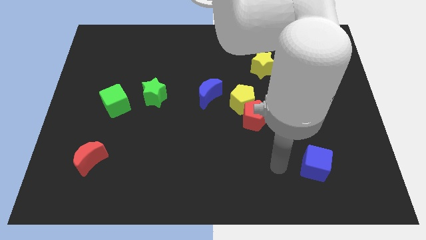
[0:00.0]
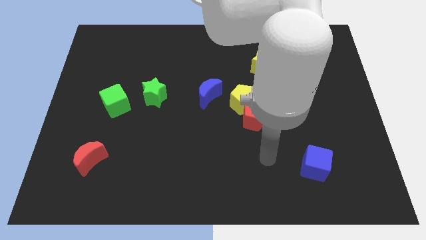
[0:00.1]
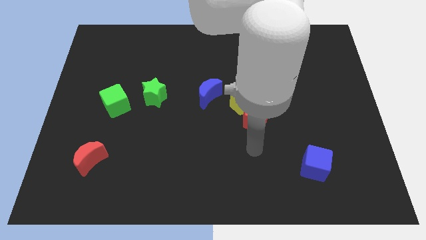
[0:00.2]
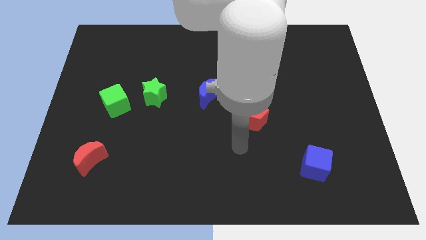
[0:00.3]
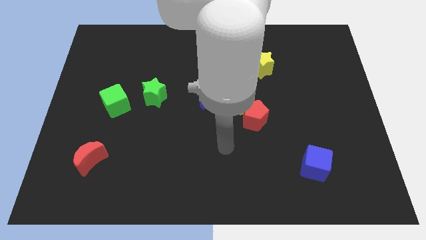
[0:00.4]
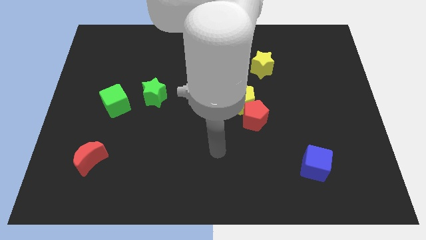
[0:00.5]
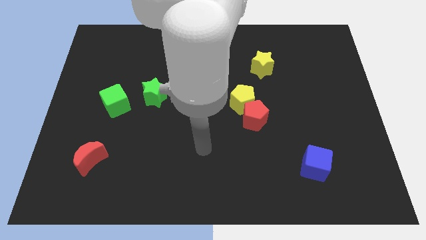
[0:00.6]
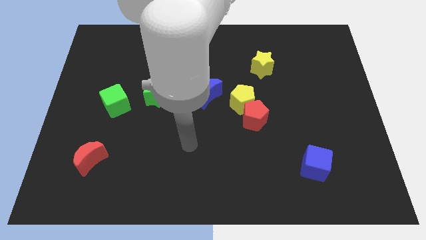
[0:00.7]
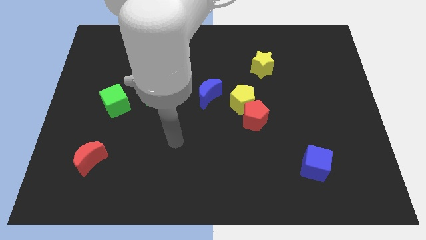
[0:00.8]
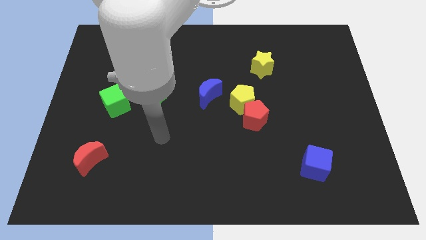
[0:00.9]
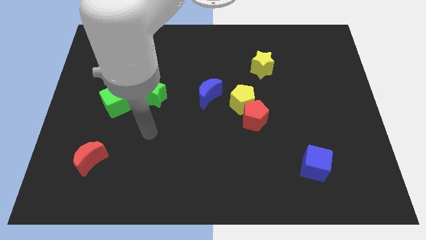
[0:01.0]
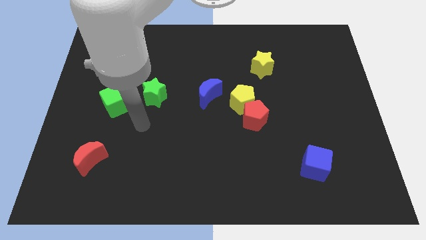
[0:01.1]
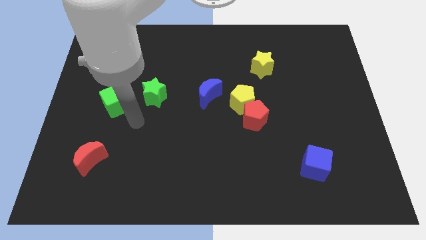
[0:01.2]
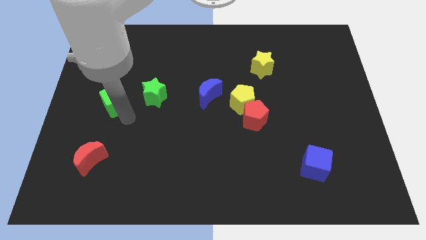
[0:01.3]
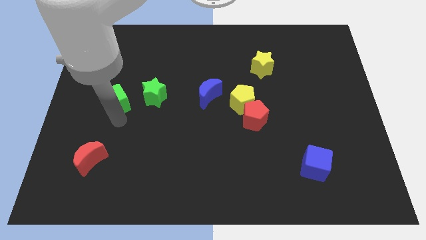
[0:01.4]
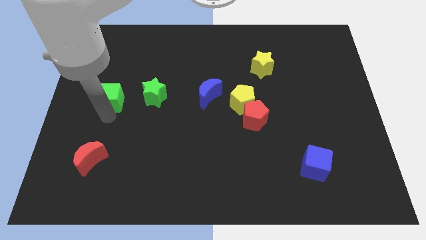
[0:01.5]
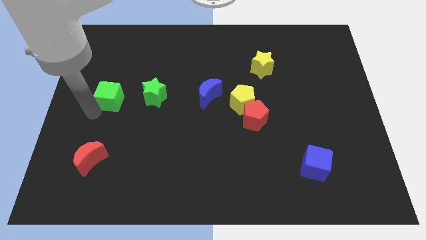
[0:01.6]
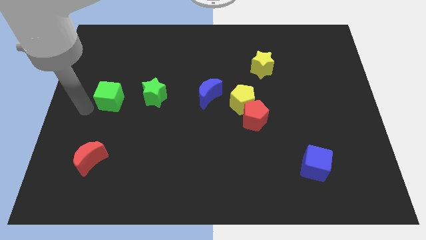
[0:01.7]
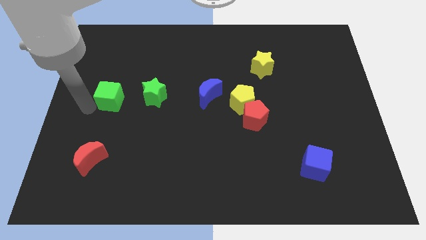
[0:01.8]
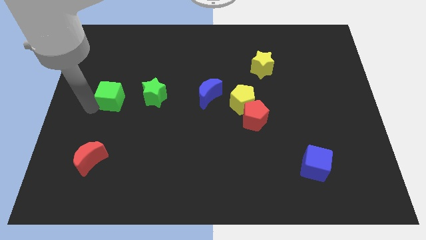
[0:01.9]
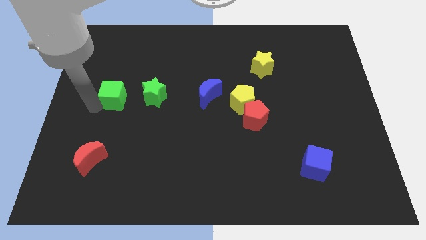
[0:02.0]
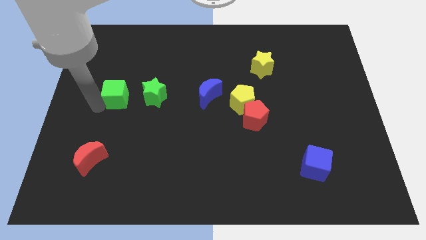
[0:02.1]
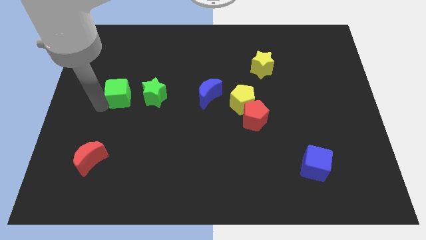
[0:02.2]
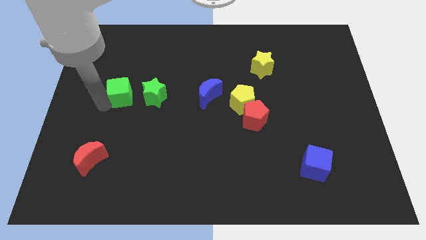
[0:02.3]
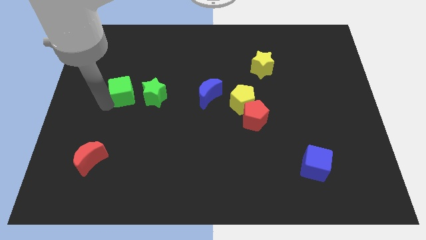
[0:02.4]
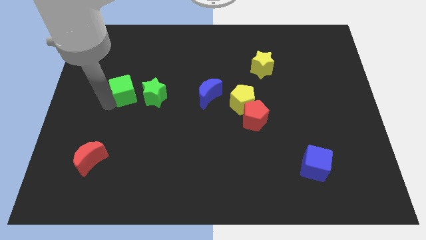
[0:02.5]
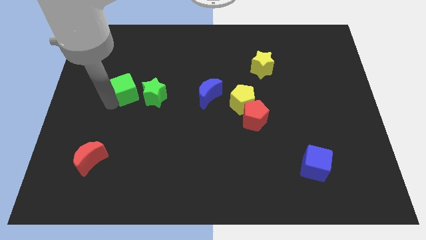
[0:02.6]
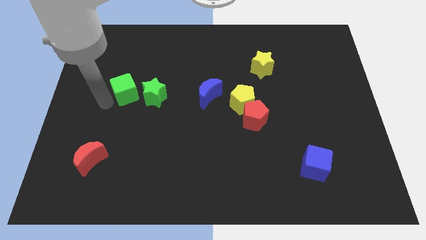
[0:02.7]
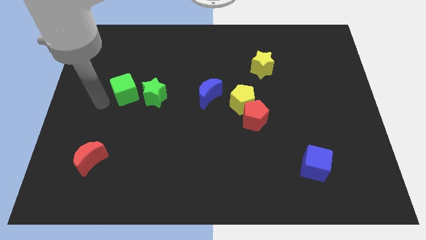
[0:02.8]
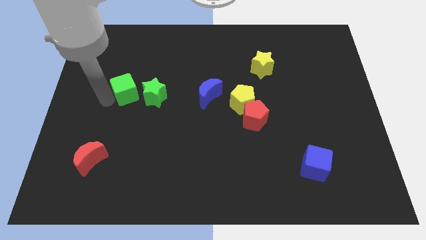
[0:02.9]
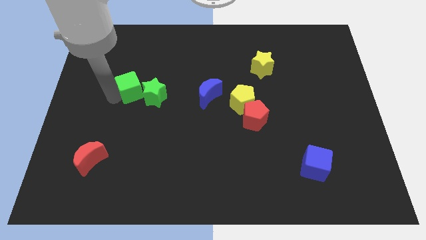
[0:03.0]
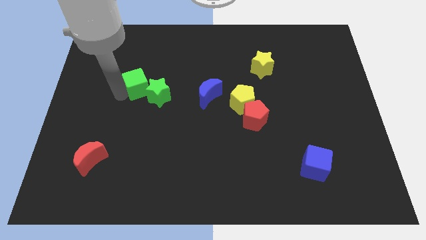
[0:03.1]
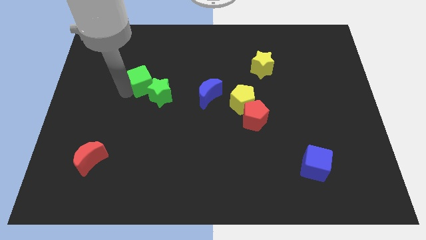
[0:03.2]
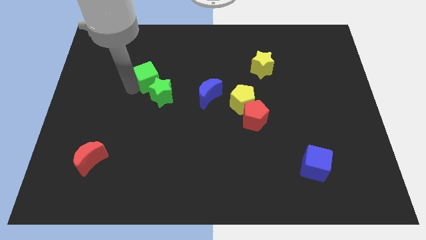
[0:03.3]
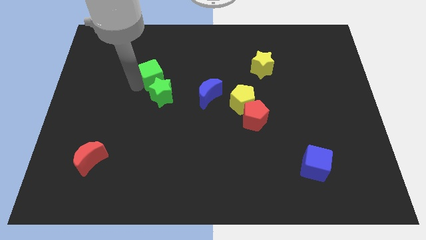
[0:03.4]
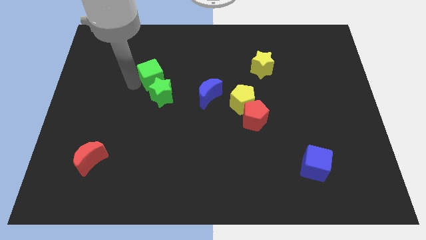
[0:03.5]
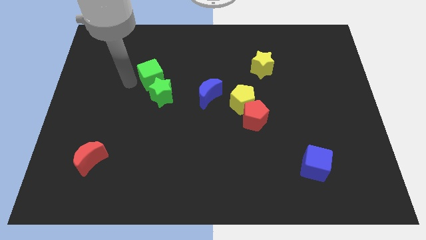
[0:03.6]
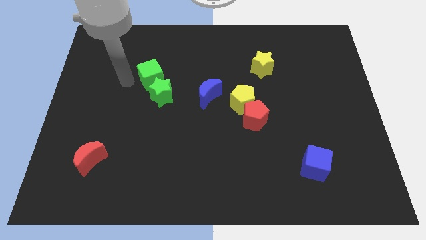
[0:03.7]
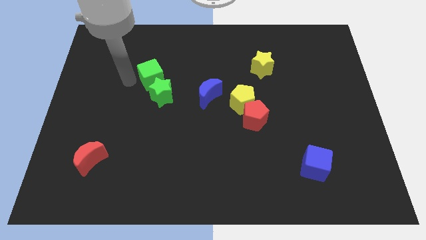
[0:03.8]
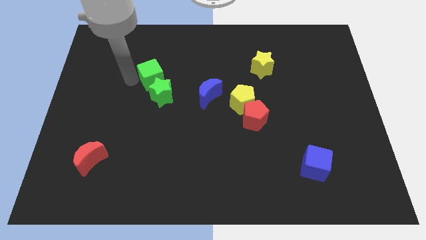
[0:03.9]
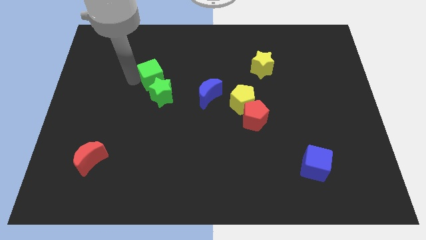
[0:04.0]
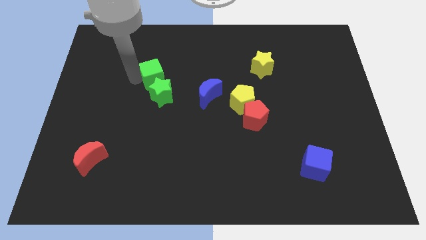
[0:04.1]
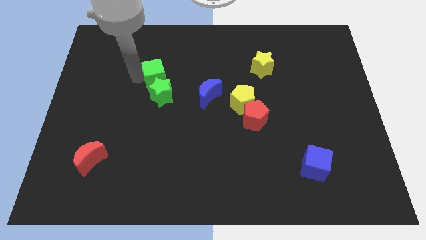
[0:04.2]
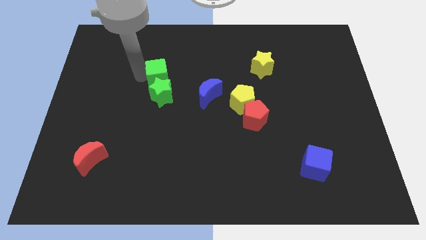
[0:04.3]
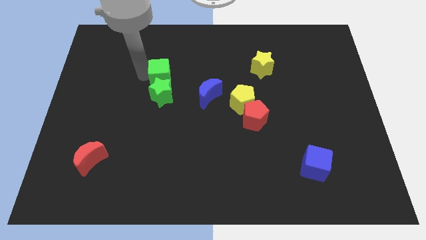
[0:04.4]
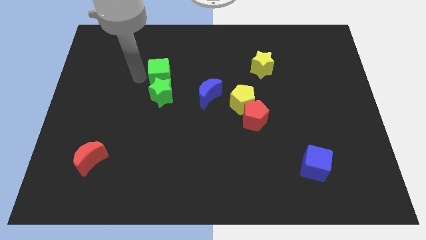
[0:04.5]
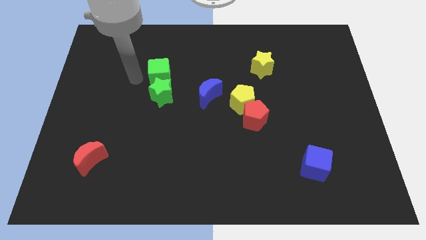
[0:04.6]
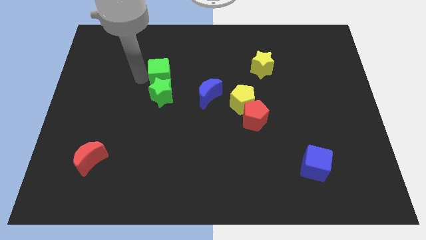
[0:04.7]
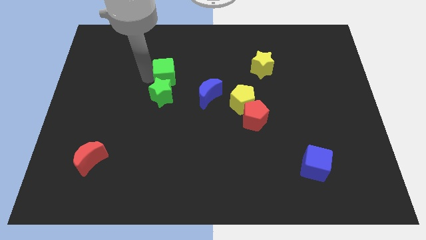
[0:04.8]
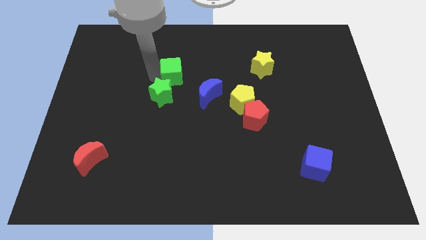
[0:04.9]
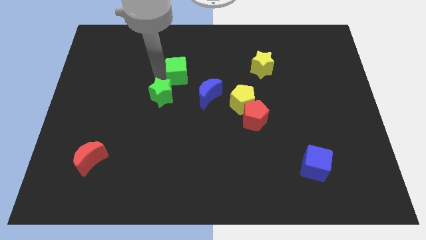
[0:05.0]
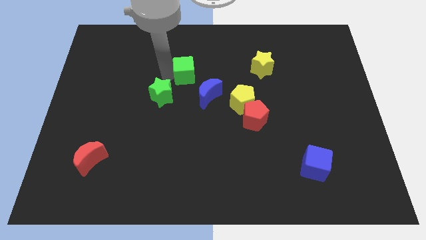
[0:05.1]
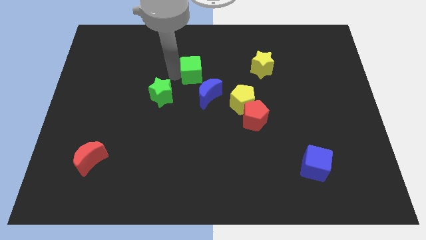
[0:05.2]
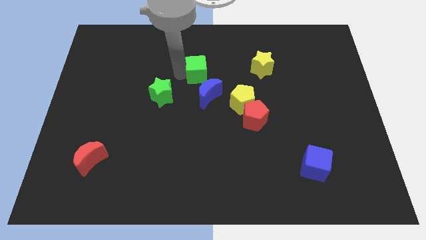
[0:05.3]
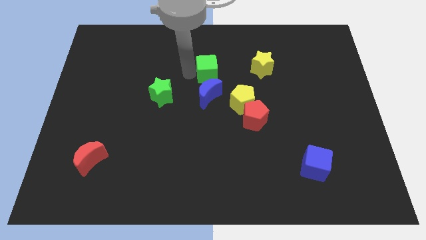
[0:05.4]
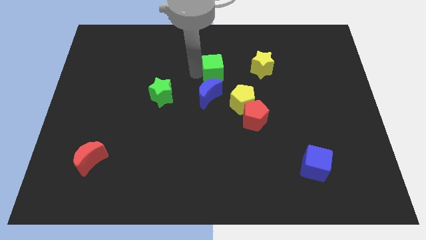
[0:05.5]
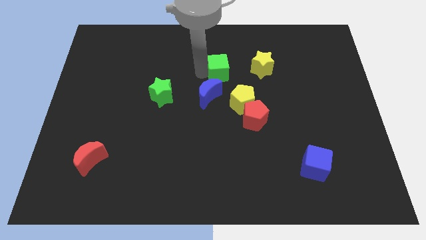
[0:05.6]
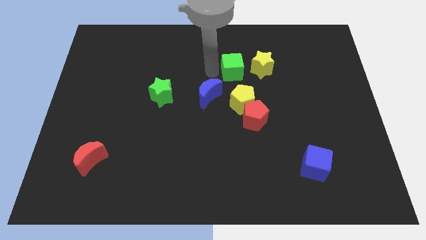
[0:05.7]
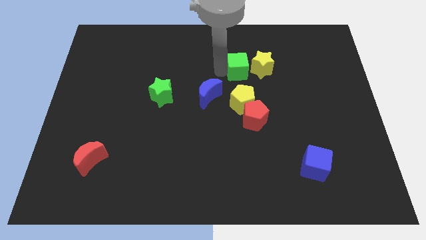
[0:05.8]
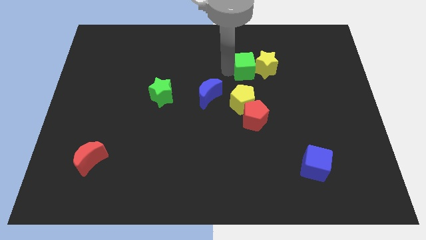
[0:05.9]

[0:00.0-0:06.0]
move the green cube next to the yellow star

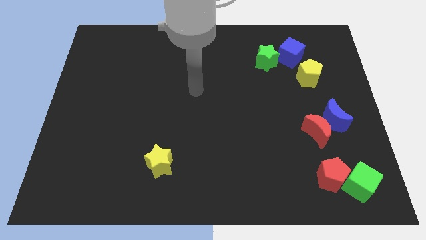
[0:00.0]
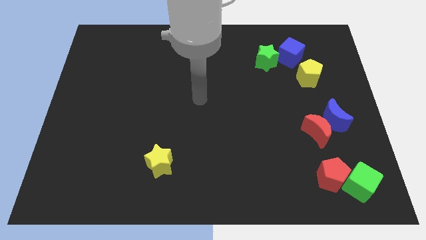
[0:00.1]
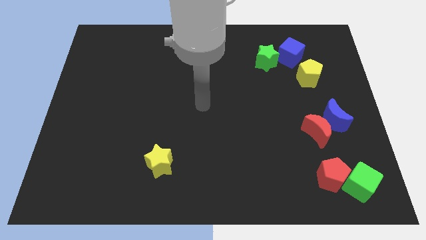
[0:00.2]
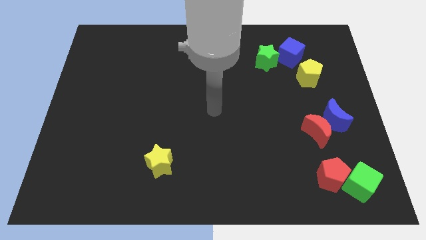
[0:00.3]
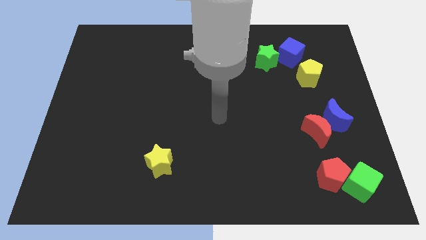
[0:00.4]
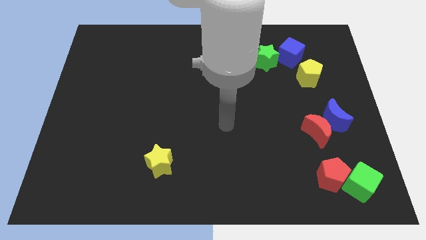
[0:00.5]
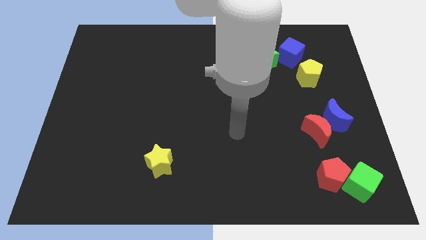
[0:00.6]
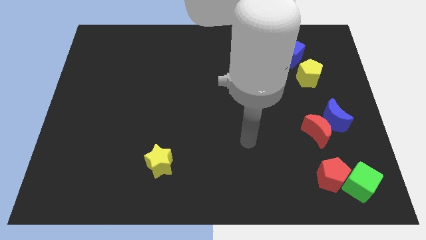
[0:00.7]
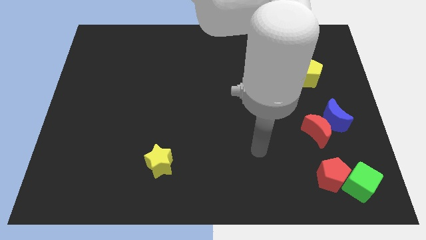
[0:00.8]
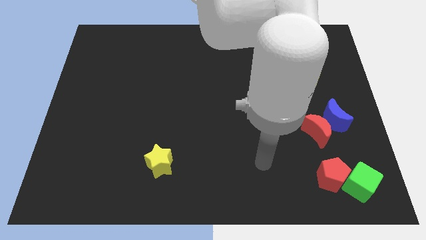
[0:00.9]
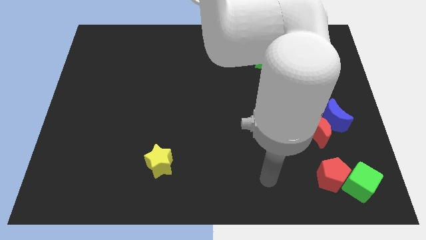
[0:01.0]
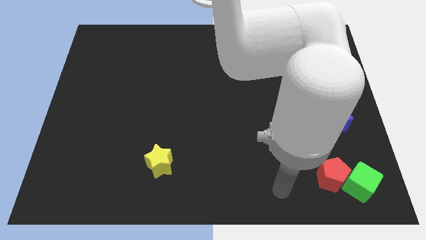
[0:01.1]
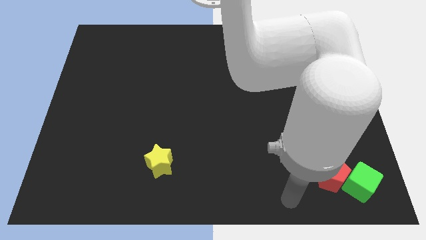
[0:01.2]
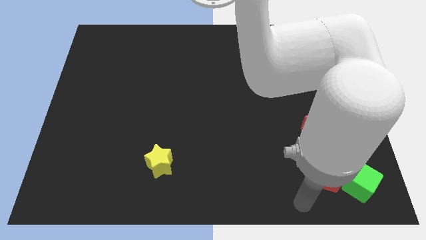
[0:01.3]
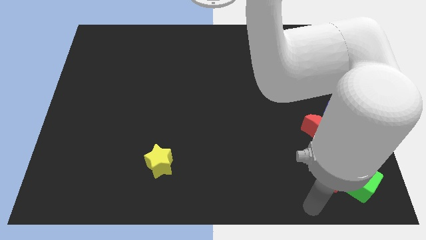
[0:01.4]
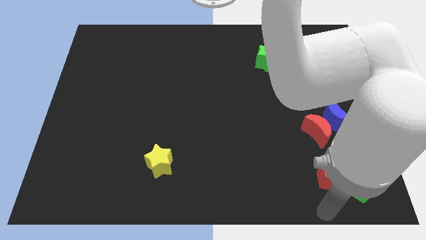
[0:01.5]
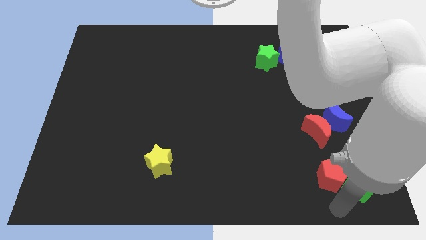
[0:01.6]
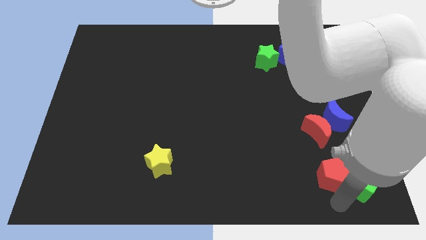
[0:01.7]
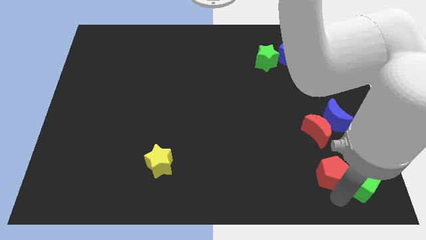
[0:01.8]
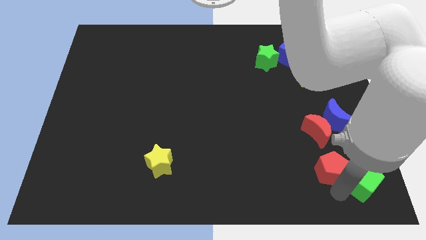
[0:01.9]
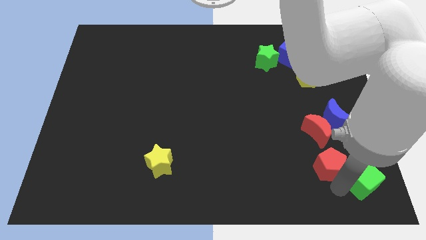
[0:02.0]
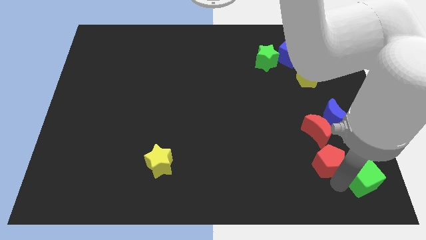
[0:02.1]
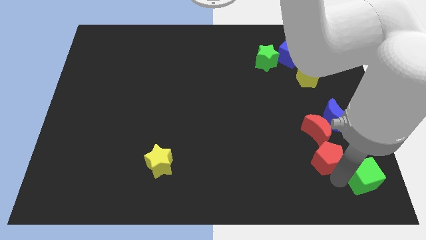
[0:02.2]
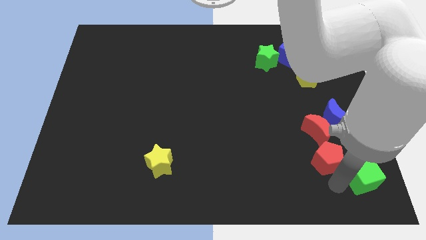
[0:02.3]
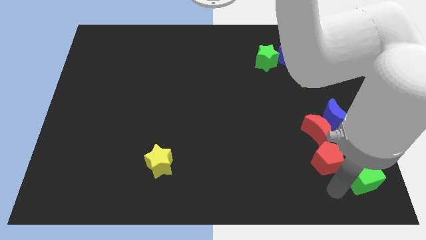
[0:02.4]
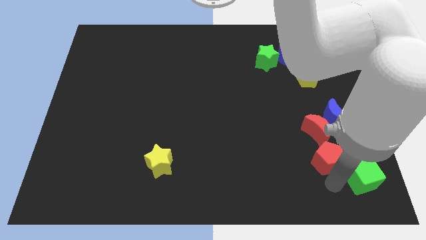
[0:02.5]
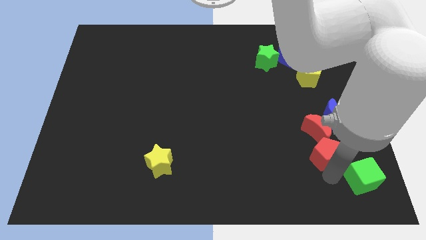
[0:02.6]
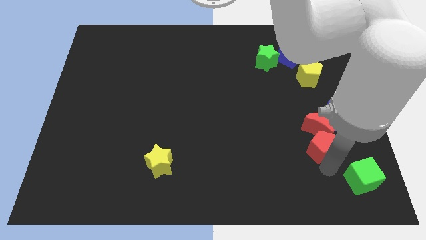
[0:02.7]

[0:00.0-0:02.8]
push the red pentagon close to the red moon
